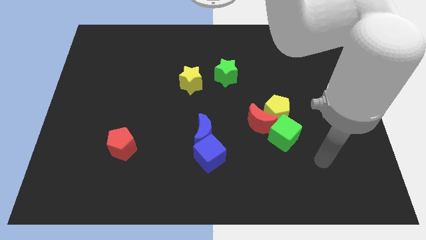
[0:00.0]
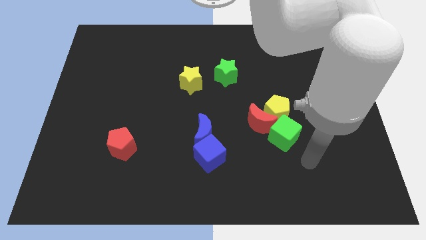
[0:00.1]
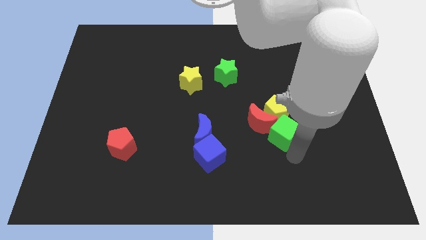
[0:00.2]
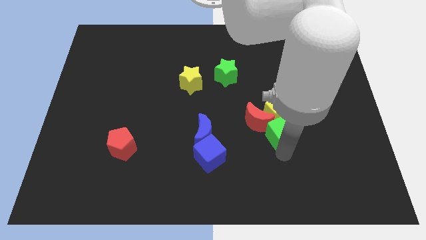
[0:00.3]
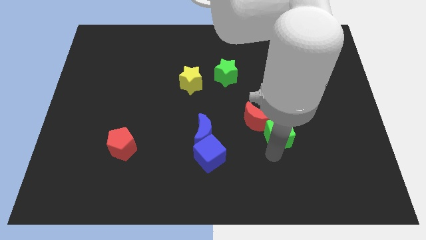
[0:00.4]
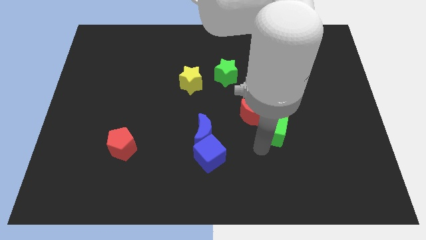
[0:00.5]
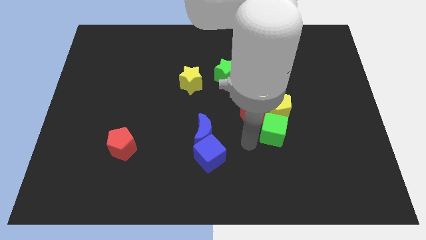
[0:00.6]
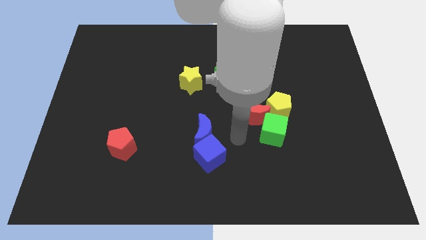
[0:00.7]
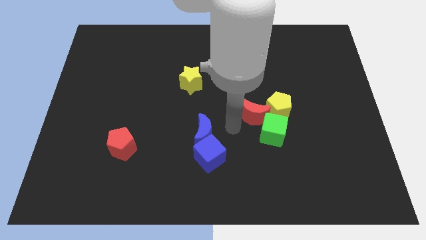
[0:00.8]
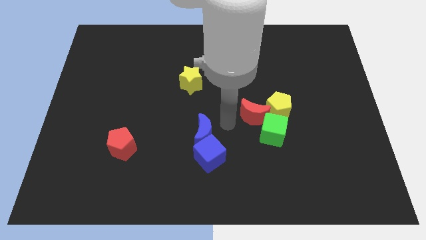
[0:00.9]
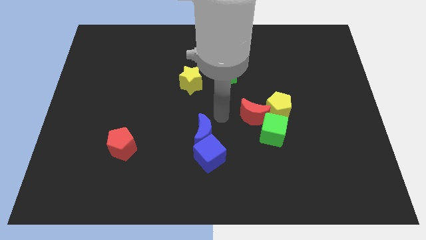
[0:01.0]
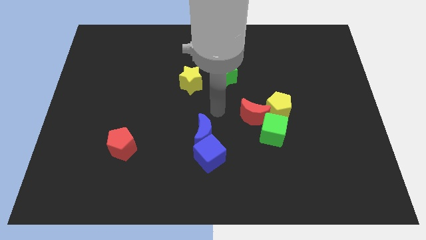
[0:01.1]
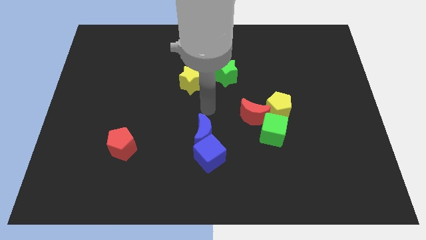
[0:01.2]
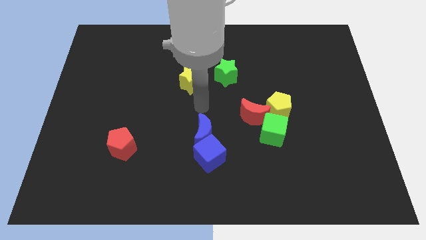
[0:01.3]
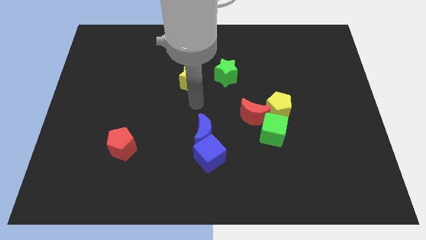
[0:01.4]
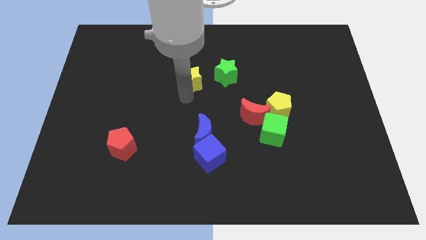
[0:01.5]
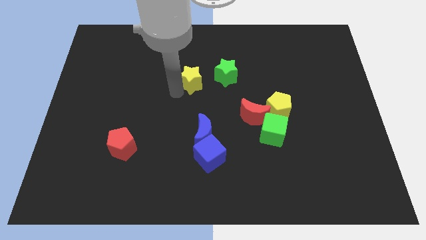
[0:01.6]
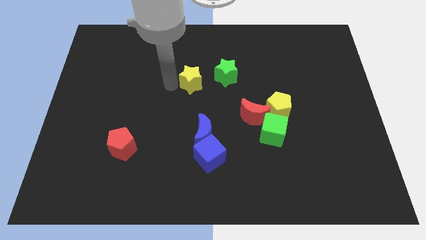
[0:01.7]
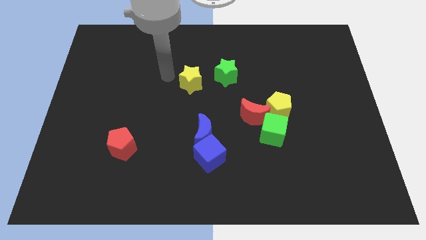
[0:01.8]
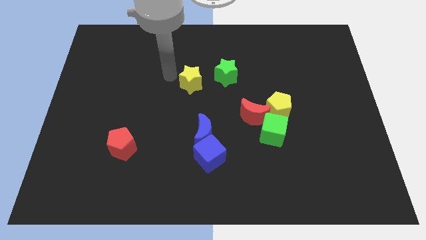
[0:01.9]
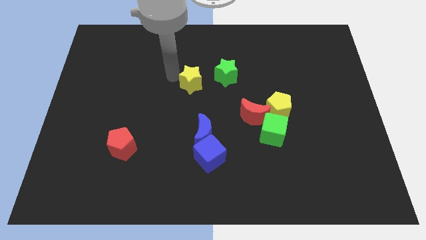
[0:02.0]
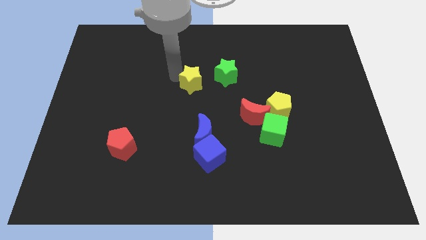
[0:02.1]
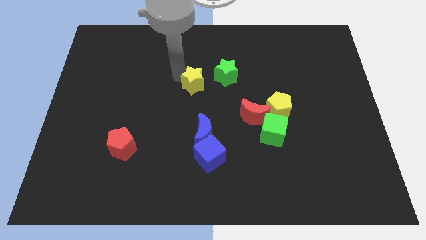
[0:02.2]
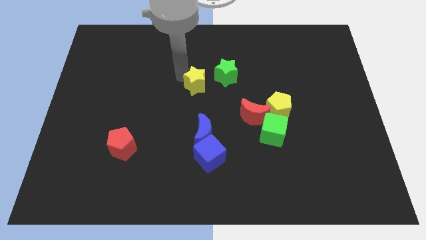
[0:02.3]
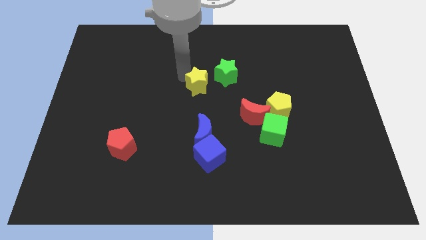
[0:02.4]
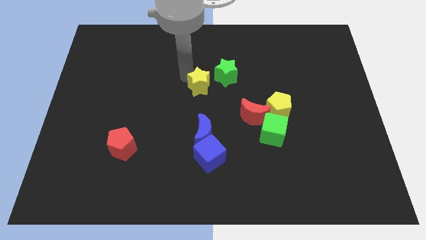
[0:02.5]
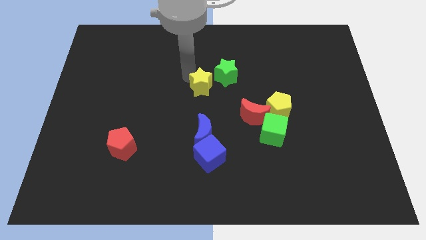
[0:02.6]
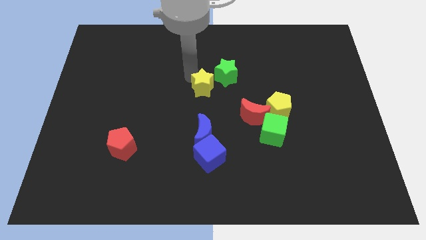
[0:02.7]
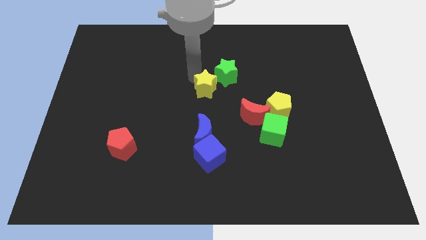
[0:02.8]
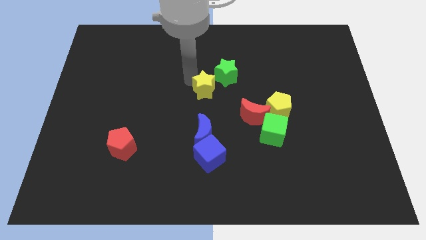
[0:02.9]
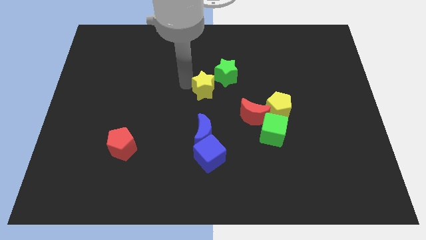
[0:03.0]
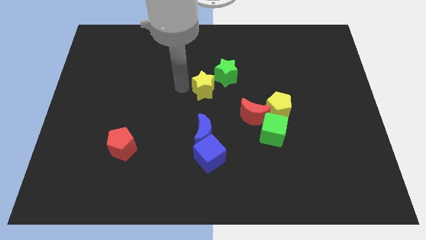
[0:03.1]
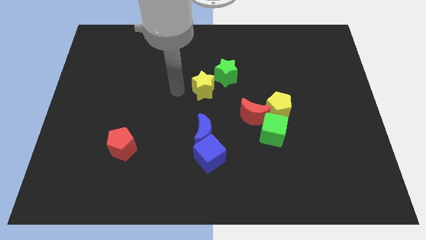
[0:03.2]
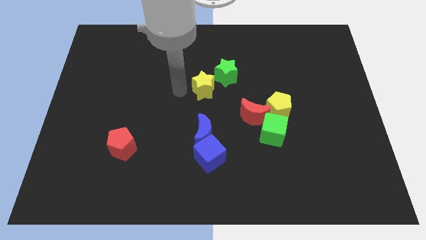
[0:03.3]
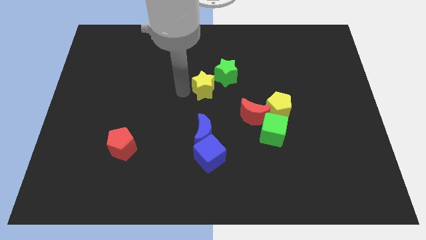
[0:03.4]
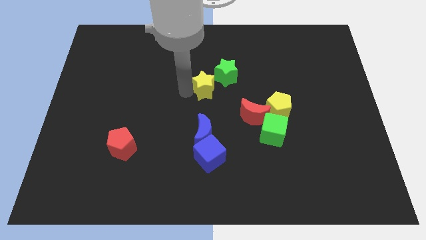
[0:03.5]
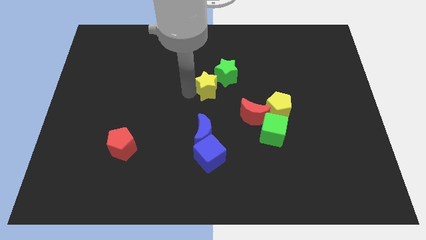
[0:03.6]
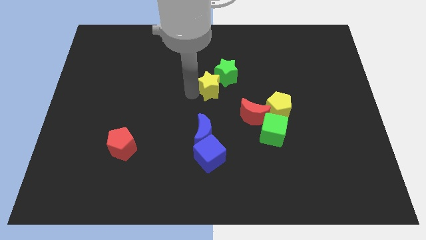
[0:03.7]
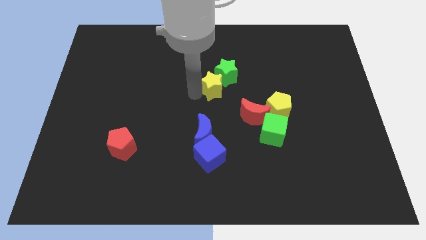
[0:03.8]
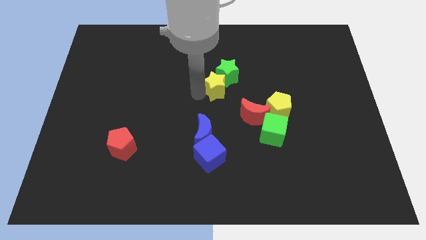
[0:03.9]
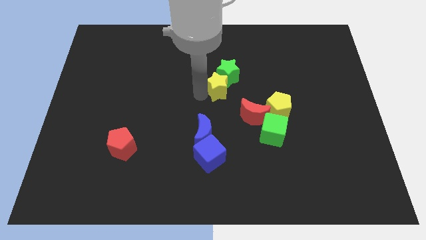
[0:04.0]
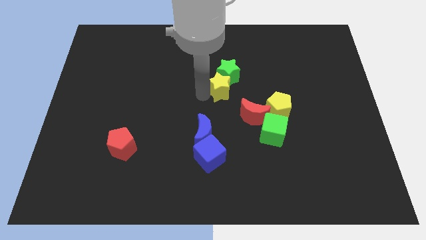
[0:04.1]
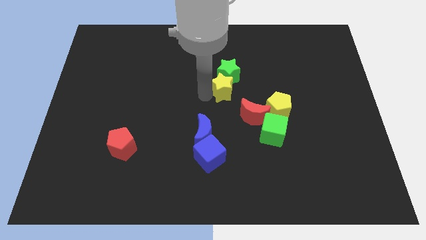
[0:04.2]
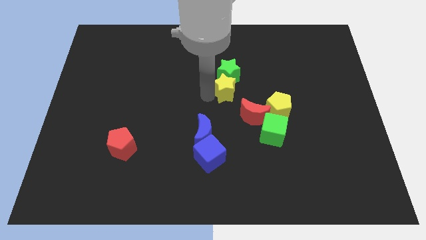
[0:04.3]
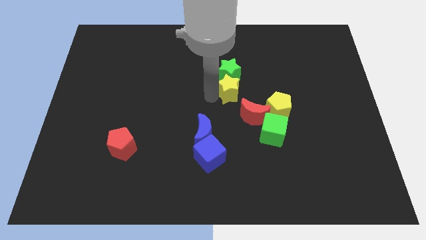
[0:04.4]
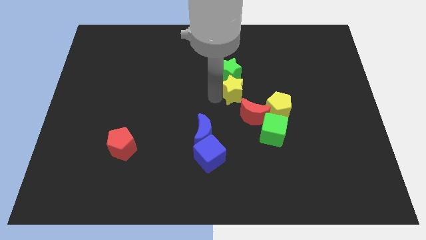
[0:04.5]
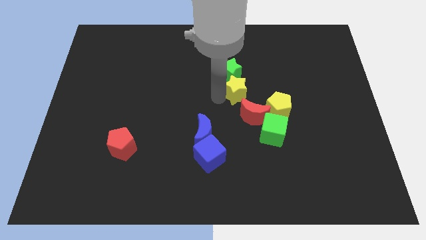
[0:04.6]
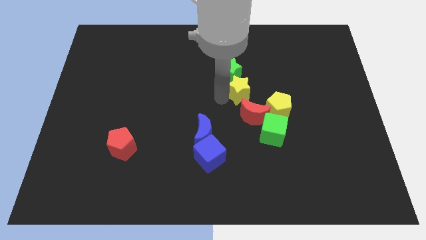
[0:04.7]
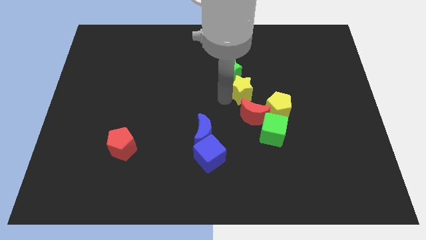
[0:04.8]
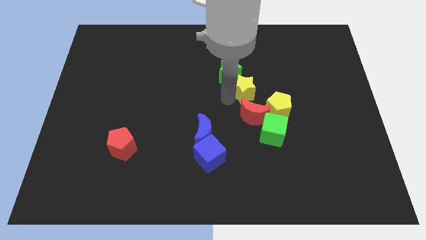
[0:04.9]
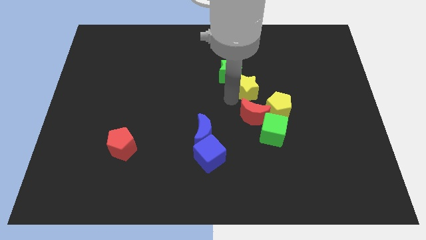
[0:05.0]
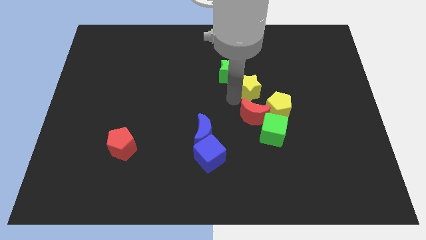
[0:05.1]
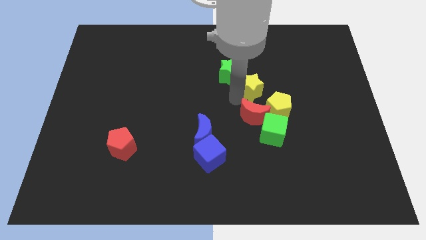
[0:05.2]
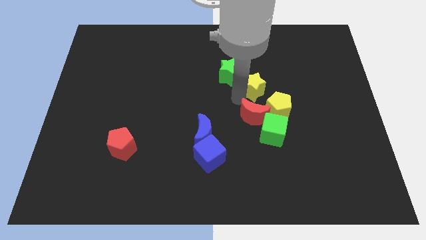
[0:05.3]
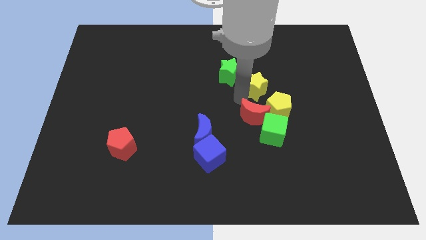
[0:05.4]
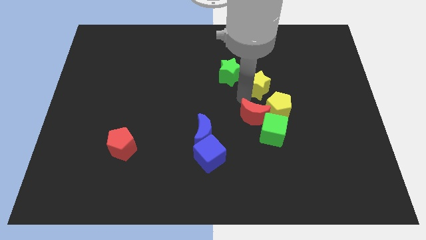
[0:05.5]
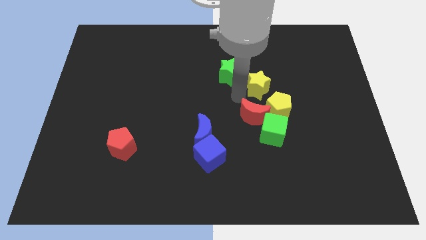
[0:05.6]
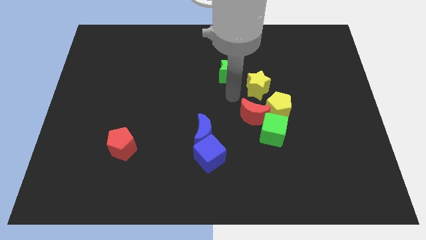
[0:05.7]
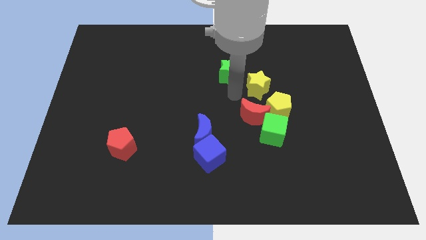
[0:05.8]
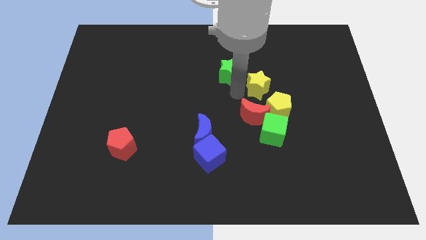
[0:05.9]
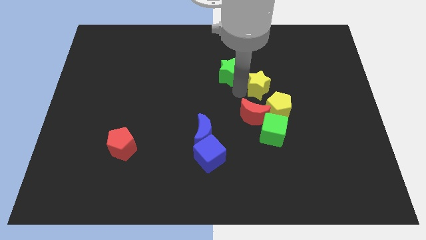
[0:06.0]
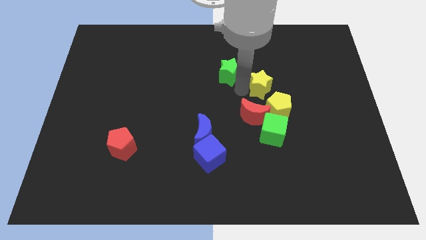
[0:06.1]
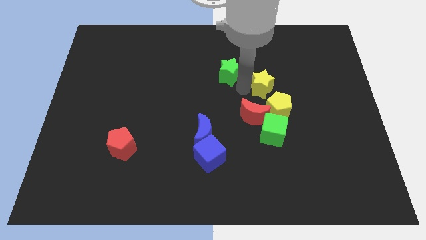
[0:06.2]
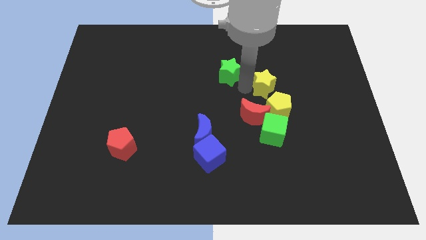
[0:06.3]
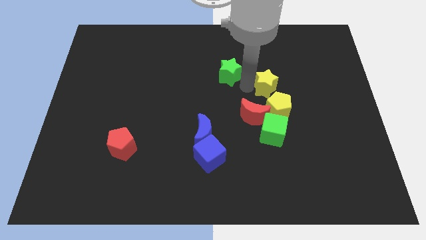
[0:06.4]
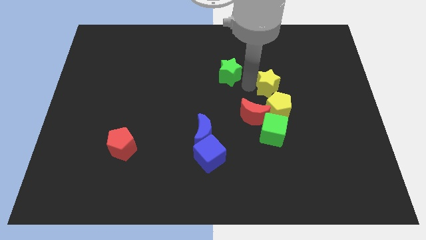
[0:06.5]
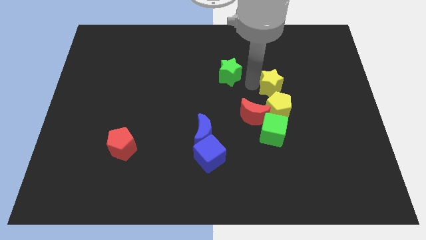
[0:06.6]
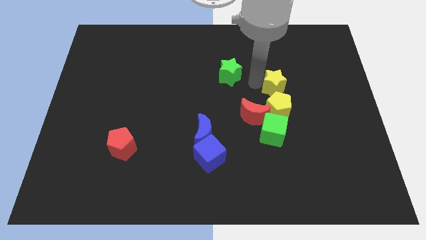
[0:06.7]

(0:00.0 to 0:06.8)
move the yellow star to the right

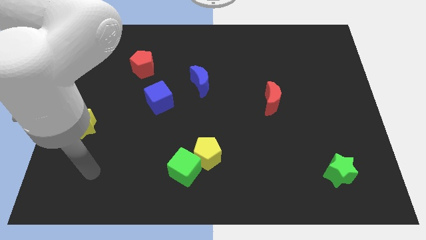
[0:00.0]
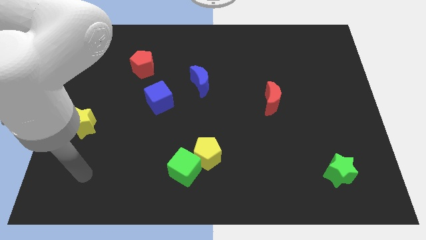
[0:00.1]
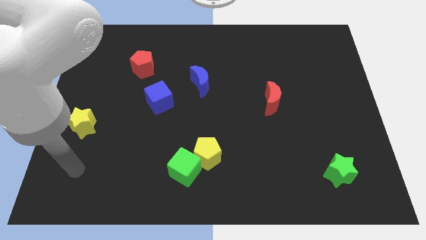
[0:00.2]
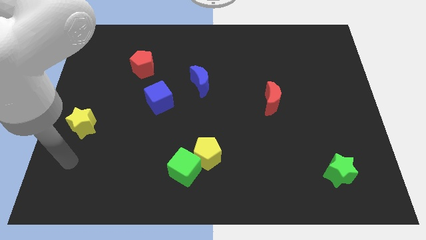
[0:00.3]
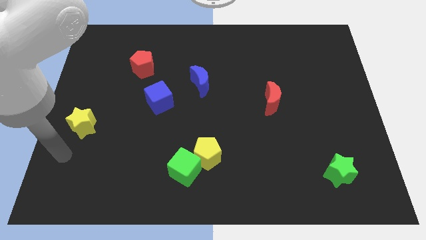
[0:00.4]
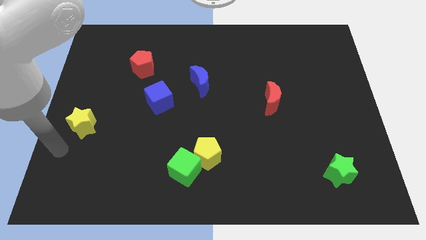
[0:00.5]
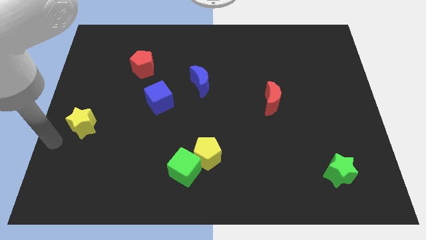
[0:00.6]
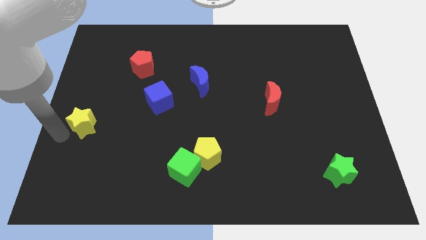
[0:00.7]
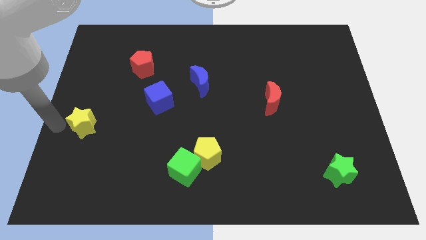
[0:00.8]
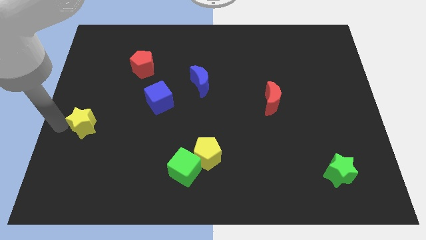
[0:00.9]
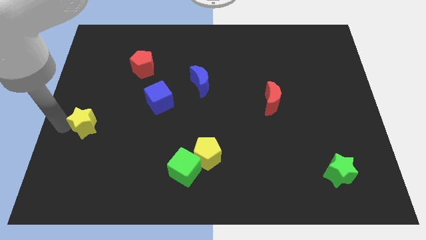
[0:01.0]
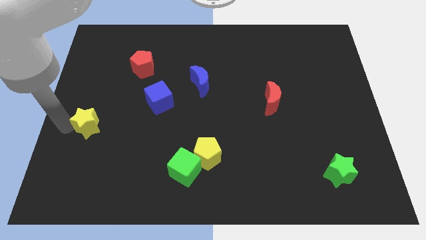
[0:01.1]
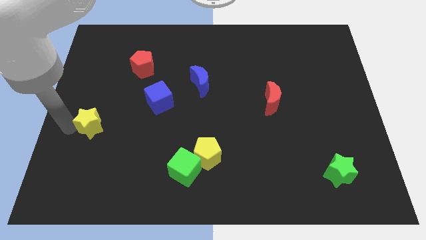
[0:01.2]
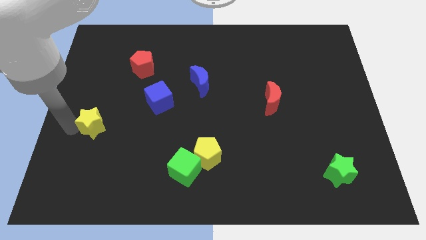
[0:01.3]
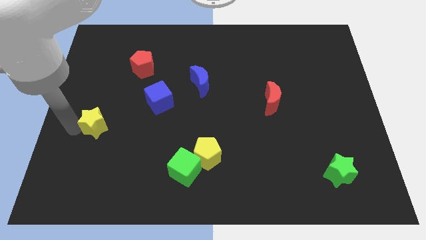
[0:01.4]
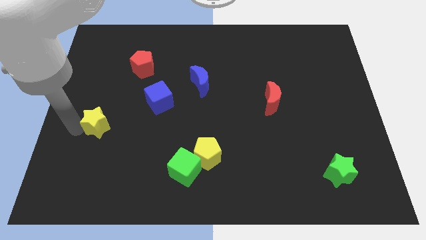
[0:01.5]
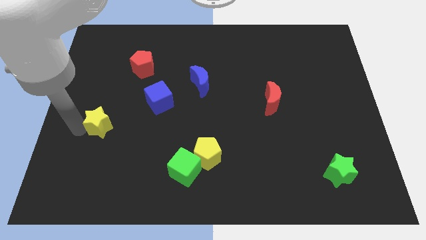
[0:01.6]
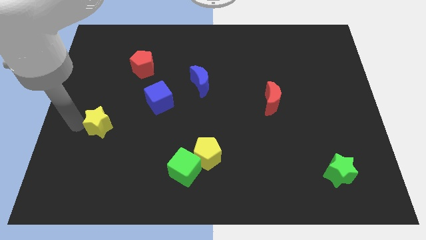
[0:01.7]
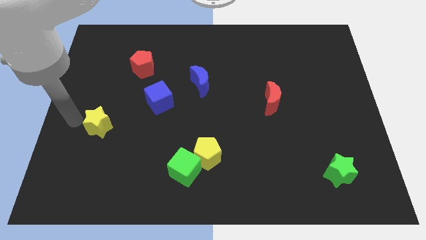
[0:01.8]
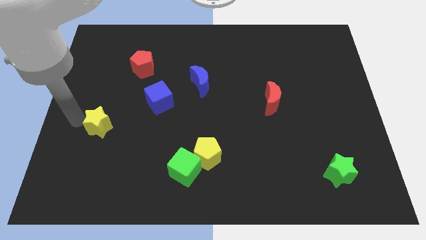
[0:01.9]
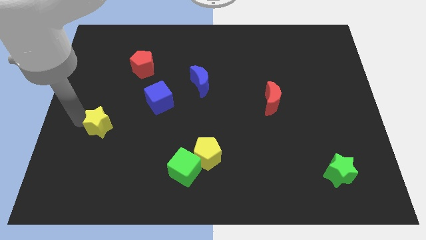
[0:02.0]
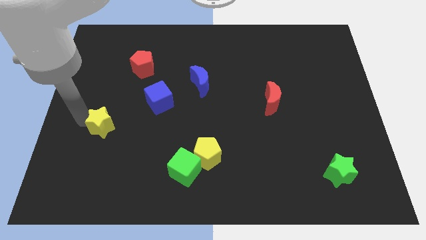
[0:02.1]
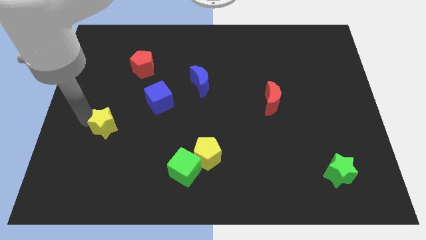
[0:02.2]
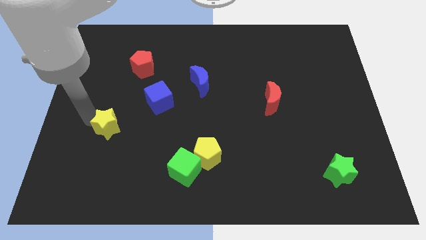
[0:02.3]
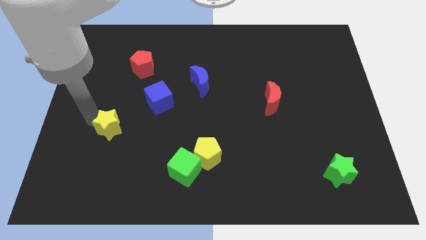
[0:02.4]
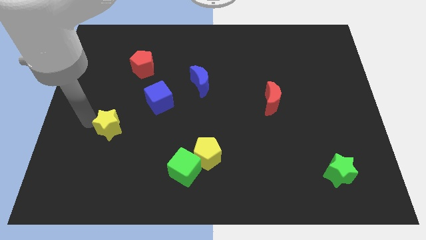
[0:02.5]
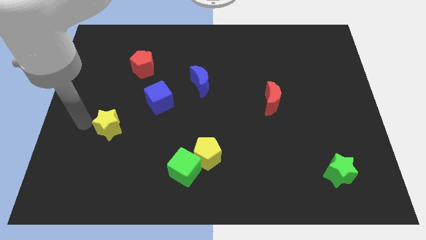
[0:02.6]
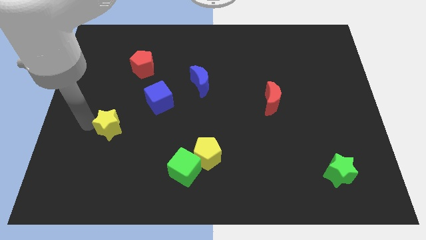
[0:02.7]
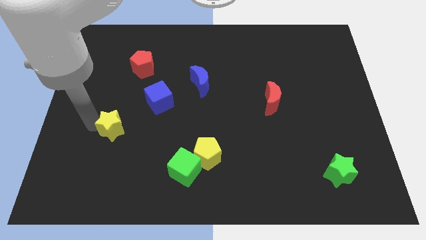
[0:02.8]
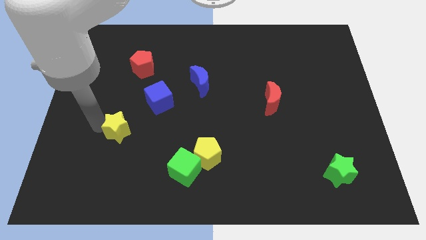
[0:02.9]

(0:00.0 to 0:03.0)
slide the yellow star right a little
